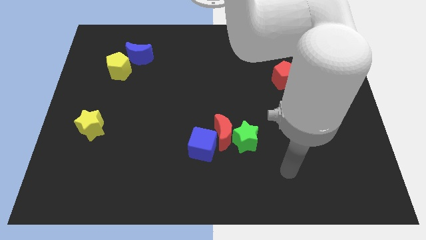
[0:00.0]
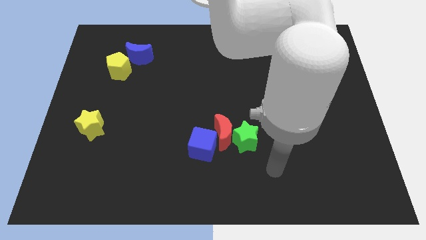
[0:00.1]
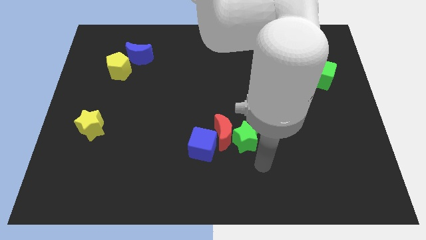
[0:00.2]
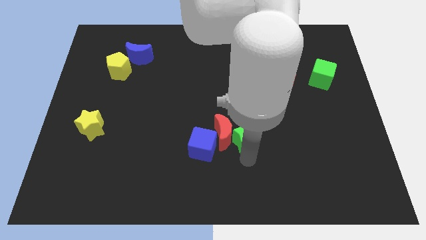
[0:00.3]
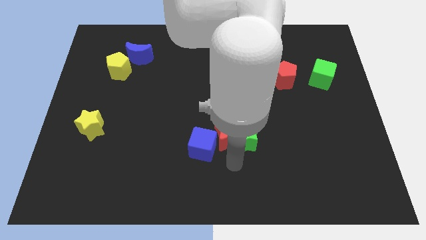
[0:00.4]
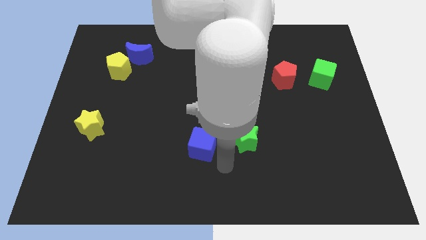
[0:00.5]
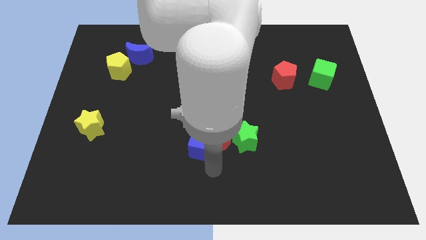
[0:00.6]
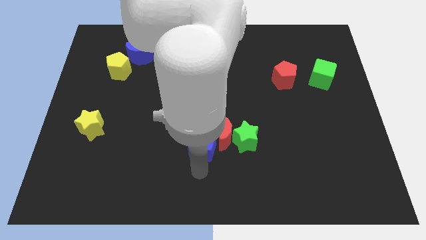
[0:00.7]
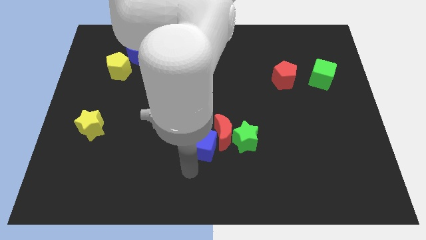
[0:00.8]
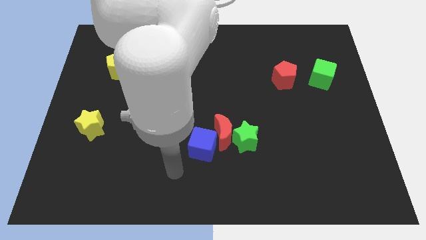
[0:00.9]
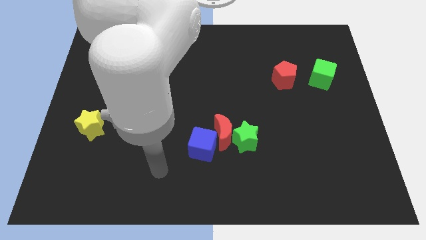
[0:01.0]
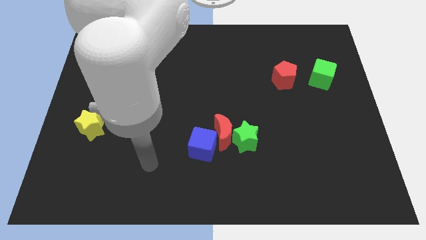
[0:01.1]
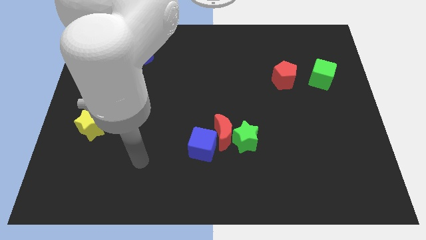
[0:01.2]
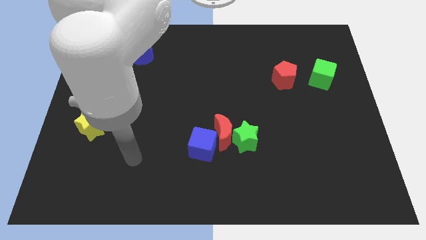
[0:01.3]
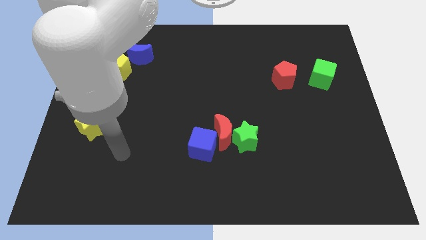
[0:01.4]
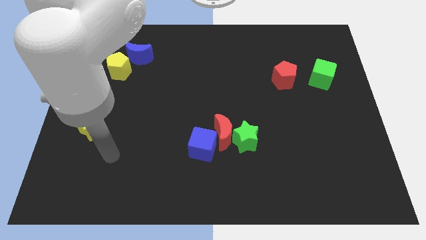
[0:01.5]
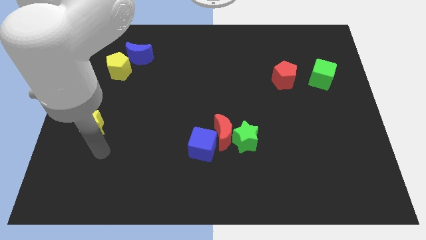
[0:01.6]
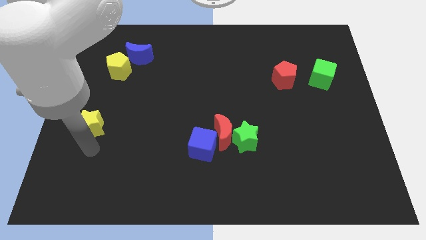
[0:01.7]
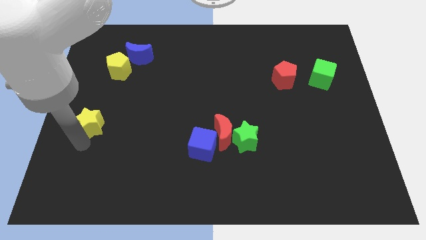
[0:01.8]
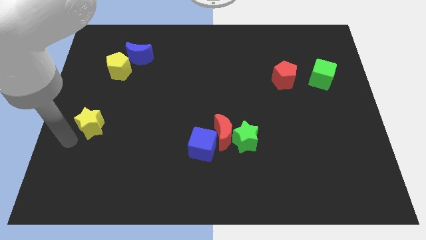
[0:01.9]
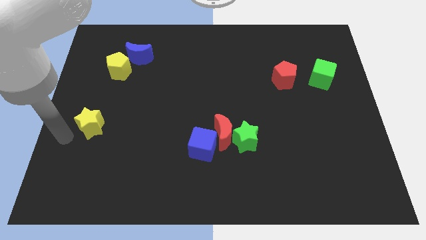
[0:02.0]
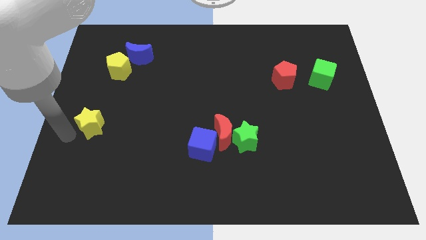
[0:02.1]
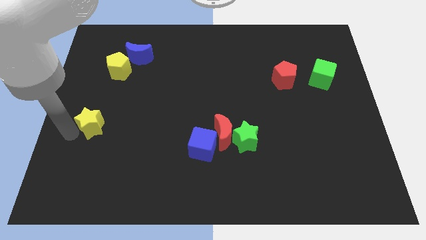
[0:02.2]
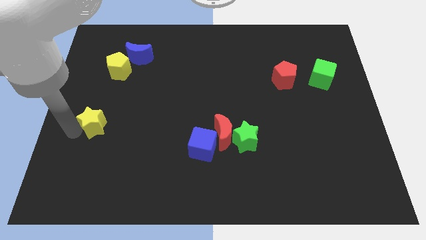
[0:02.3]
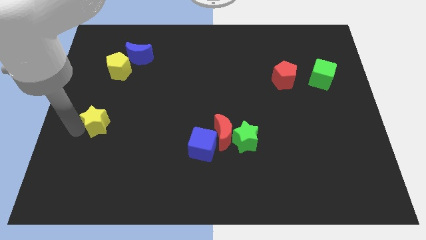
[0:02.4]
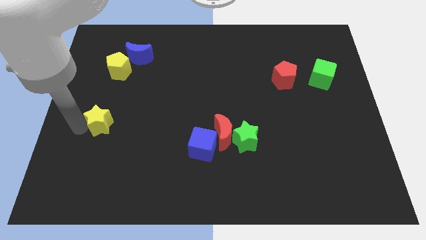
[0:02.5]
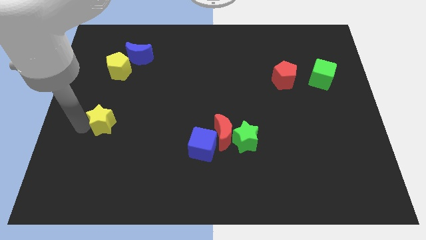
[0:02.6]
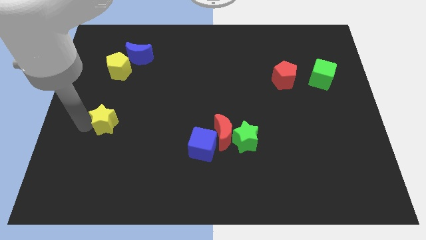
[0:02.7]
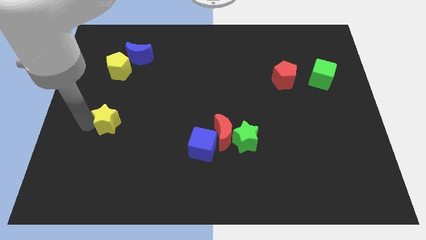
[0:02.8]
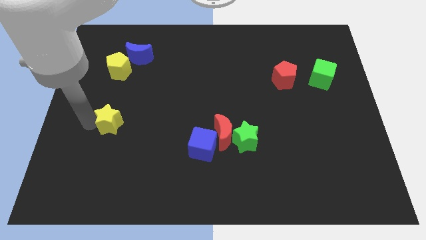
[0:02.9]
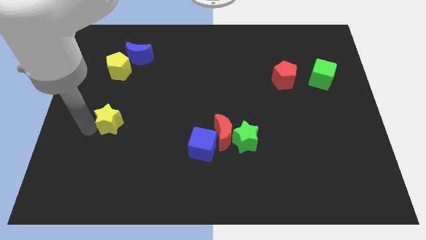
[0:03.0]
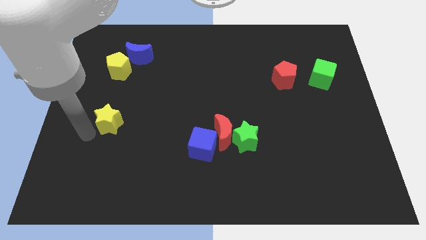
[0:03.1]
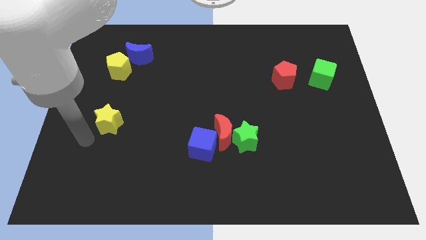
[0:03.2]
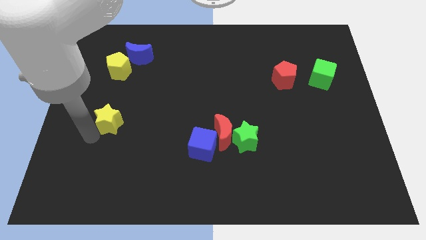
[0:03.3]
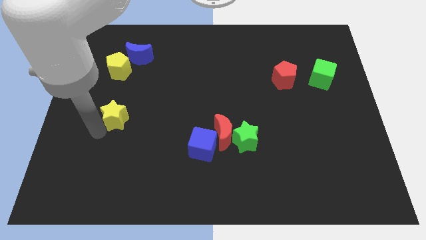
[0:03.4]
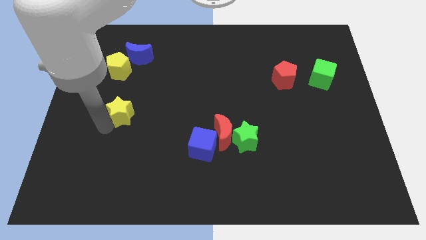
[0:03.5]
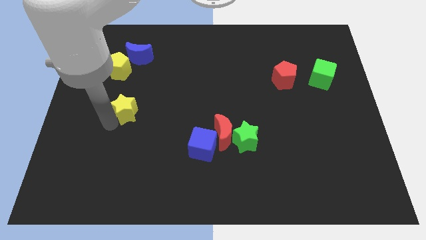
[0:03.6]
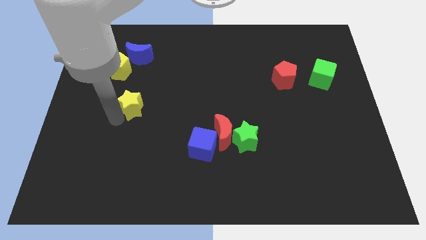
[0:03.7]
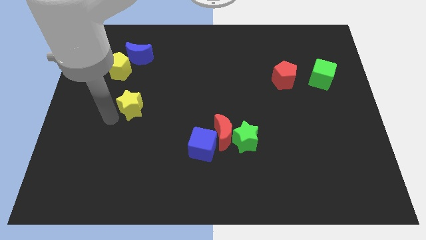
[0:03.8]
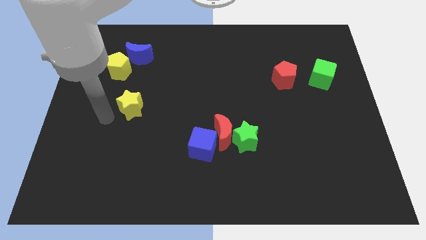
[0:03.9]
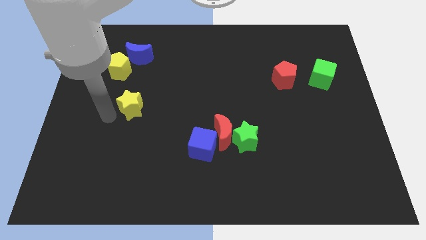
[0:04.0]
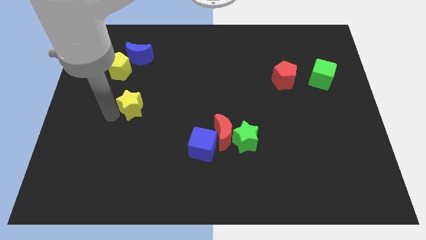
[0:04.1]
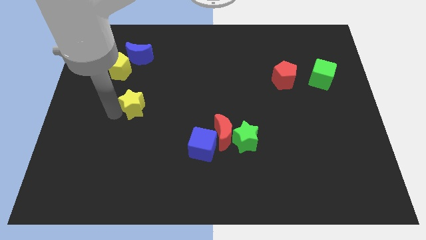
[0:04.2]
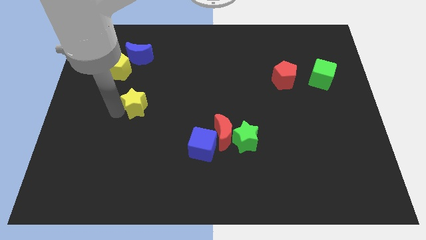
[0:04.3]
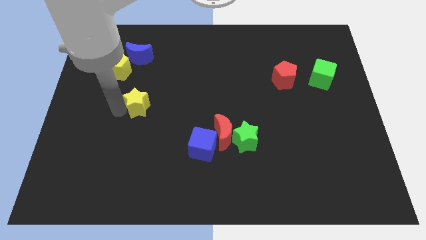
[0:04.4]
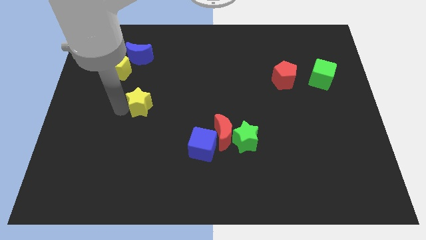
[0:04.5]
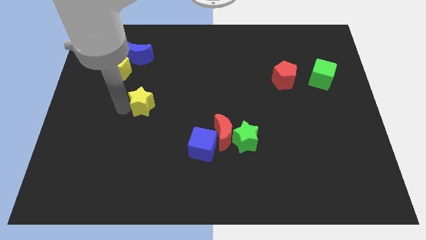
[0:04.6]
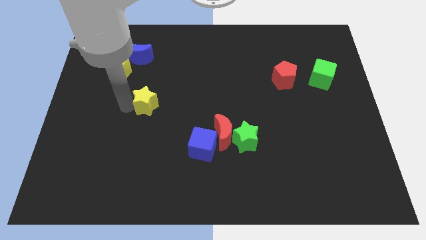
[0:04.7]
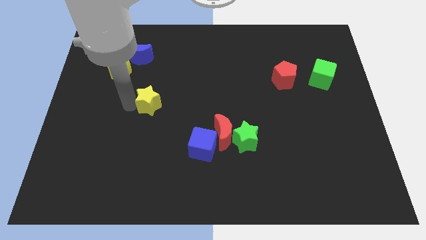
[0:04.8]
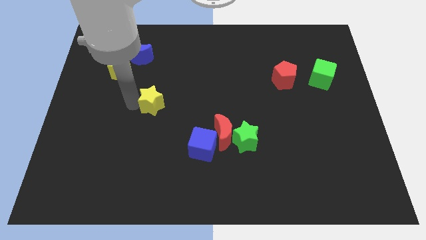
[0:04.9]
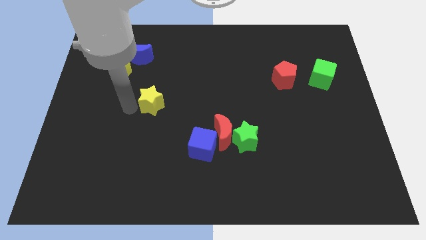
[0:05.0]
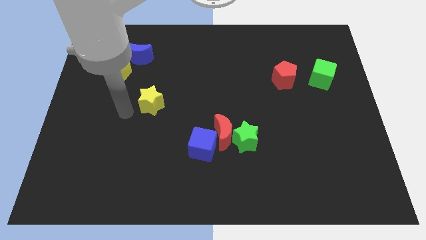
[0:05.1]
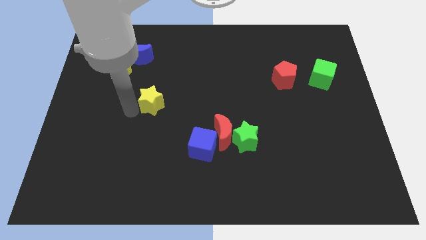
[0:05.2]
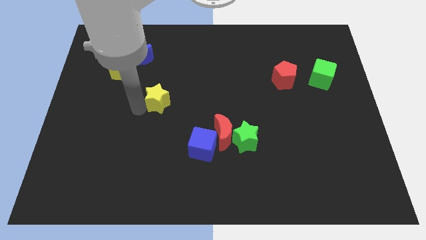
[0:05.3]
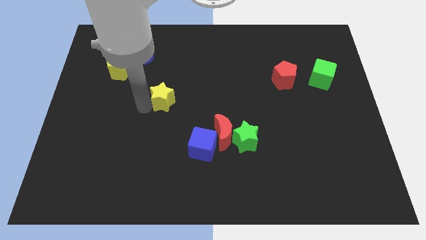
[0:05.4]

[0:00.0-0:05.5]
push the yellow star to the middle

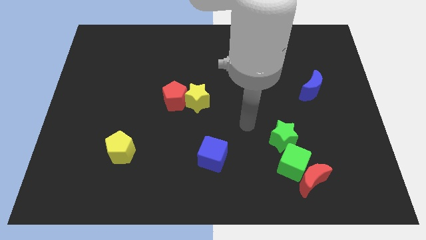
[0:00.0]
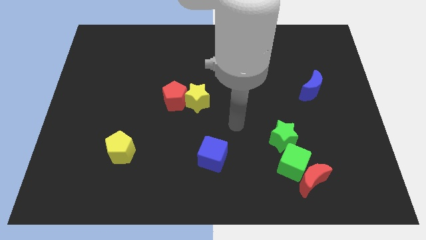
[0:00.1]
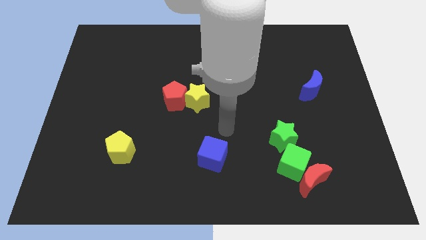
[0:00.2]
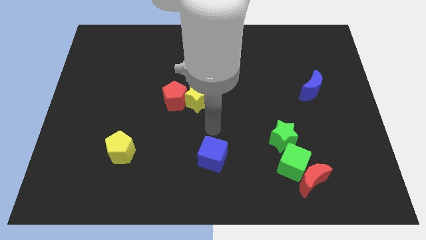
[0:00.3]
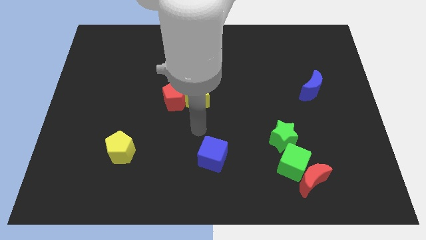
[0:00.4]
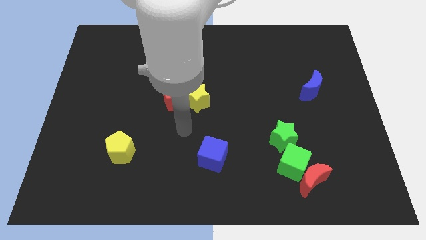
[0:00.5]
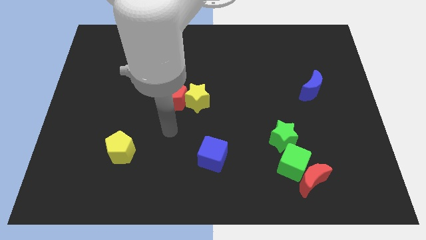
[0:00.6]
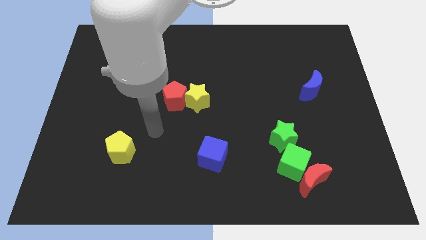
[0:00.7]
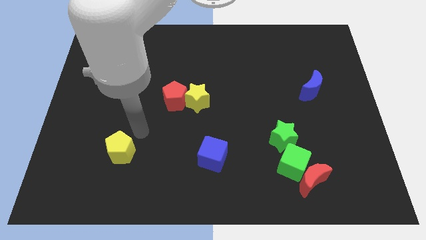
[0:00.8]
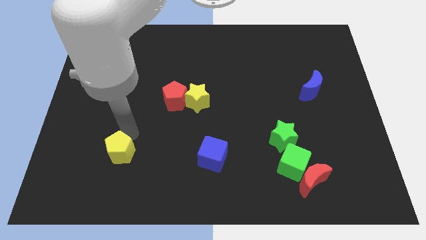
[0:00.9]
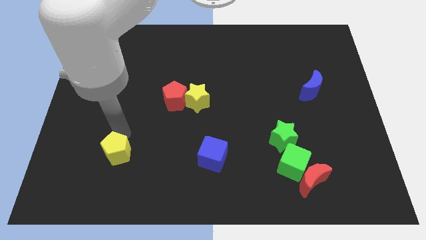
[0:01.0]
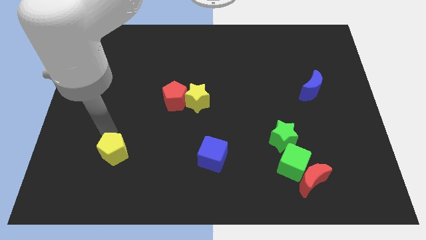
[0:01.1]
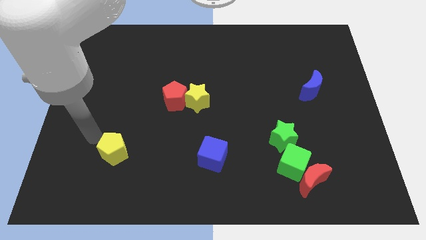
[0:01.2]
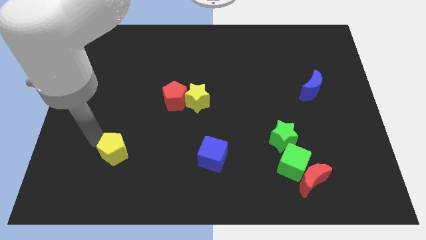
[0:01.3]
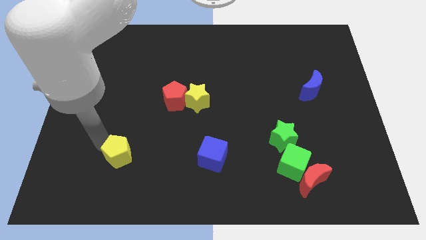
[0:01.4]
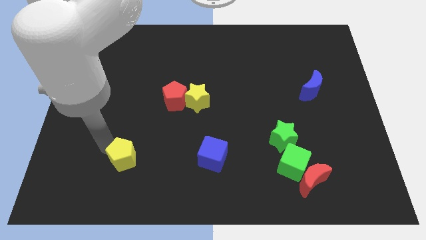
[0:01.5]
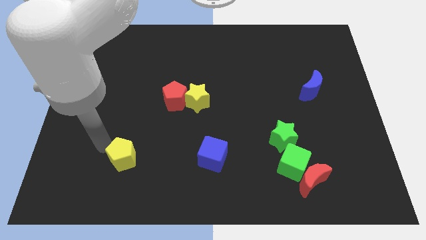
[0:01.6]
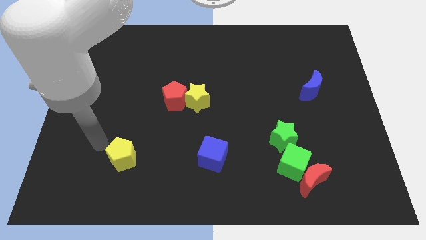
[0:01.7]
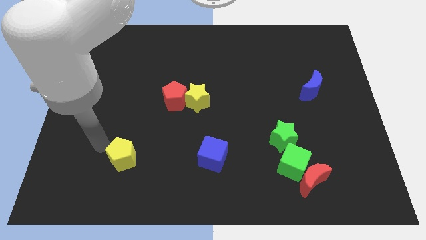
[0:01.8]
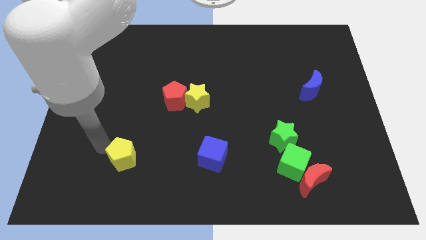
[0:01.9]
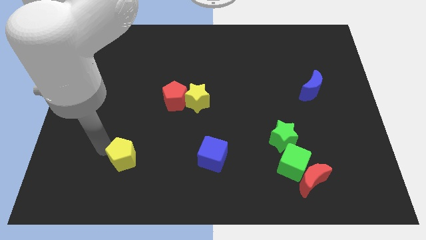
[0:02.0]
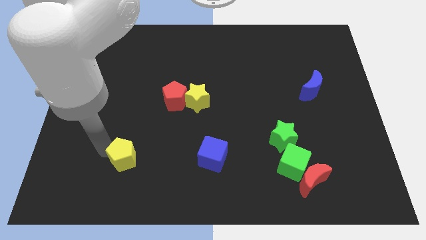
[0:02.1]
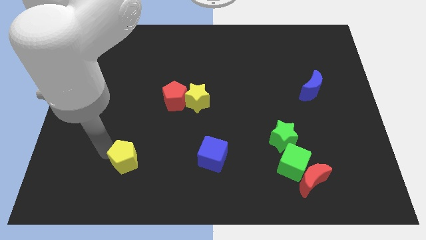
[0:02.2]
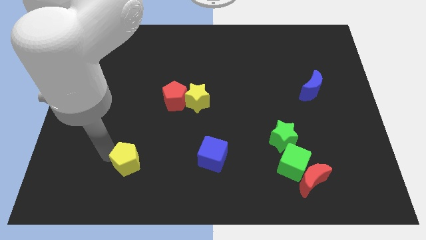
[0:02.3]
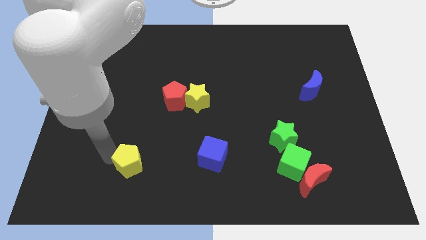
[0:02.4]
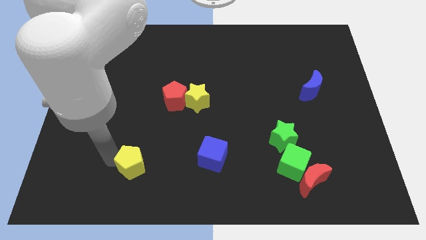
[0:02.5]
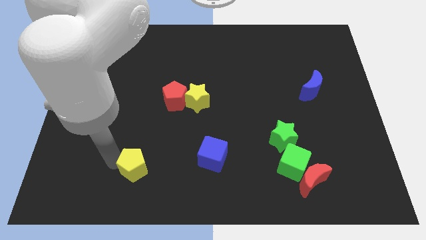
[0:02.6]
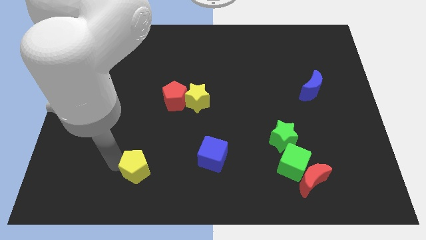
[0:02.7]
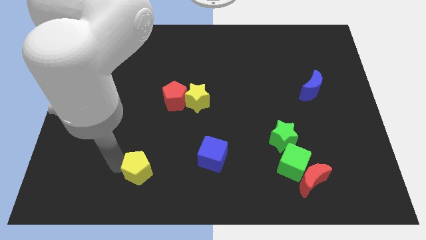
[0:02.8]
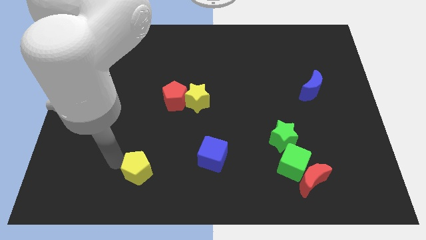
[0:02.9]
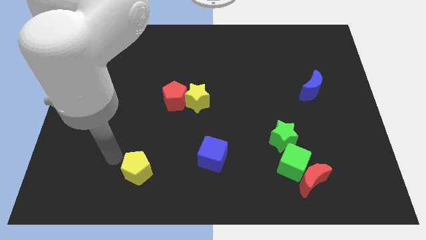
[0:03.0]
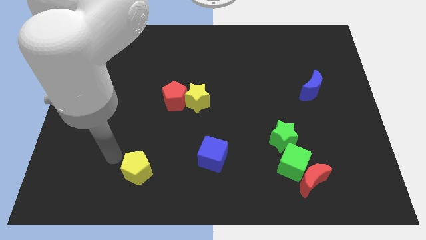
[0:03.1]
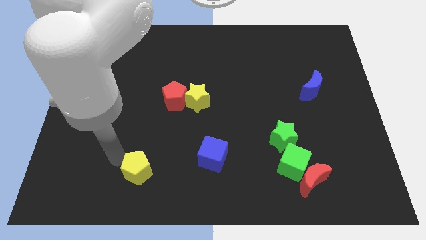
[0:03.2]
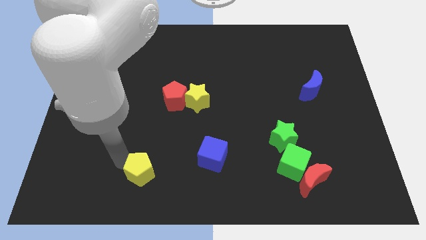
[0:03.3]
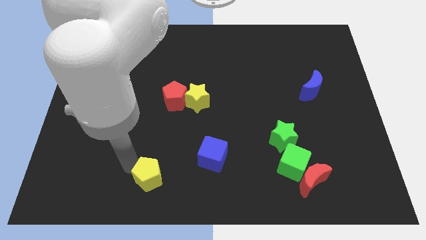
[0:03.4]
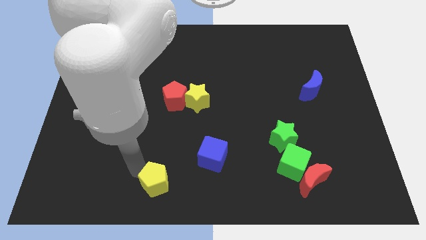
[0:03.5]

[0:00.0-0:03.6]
slide the yellow pentagon to the bottom side
